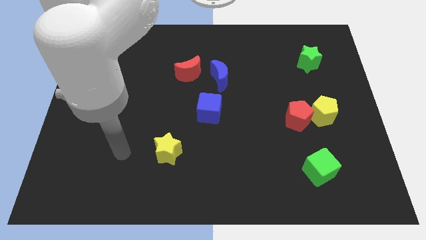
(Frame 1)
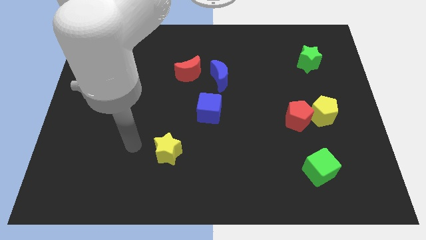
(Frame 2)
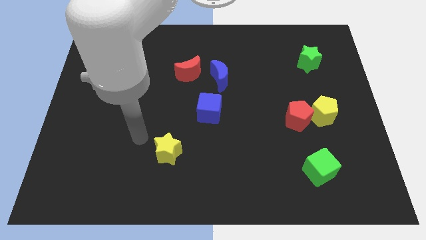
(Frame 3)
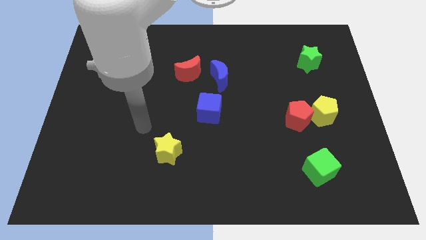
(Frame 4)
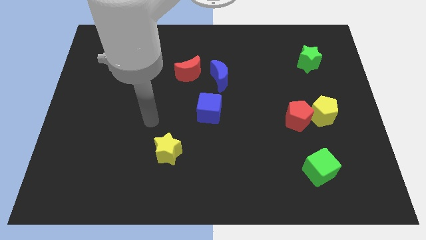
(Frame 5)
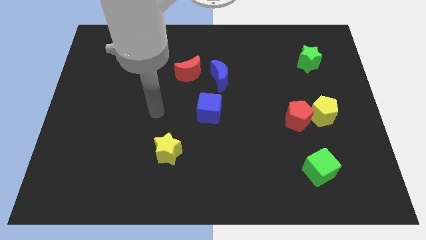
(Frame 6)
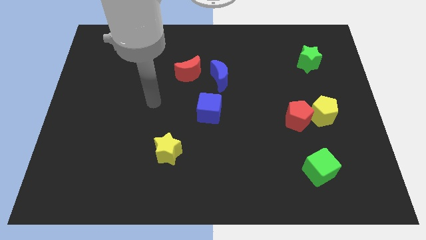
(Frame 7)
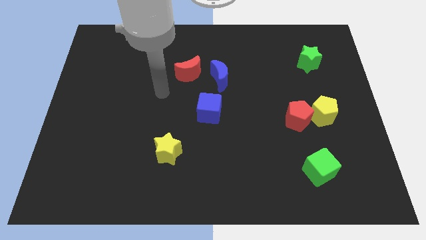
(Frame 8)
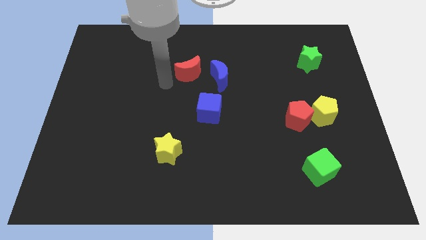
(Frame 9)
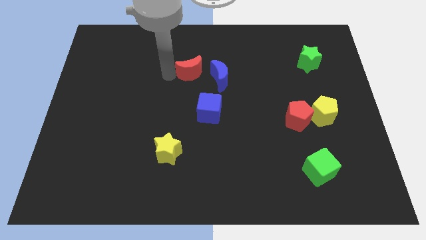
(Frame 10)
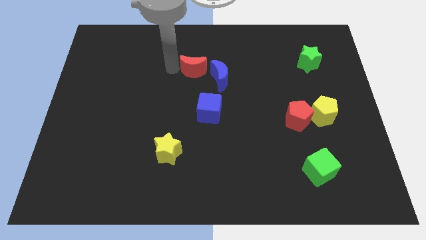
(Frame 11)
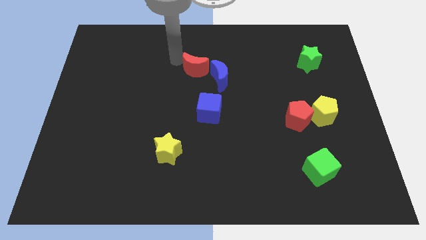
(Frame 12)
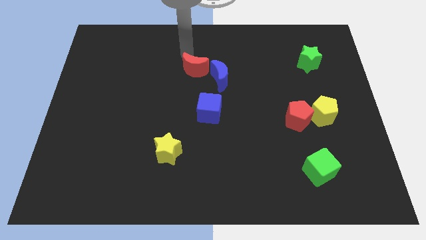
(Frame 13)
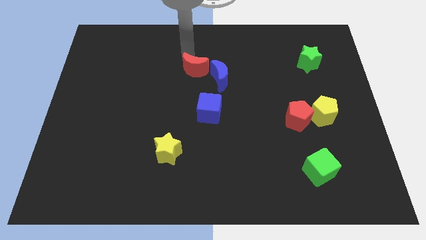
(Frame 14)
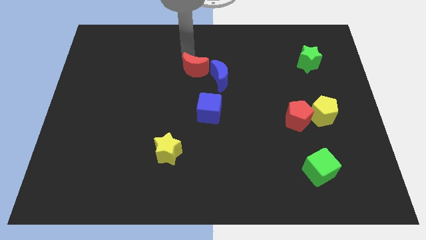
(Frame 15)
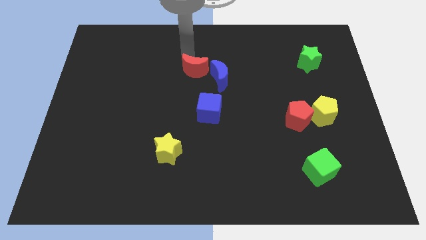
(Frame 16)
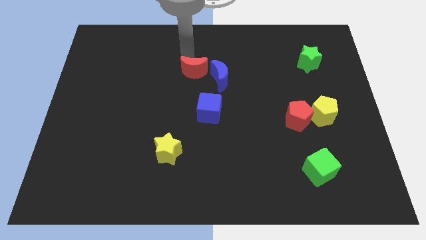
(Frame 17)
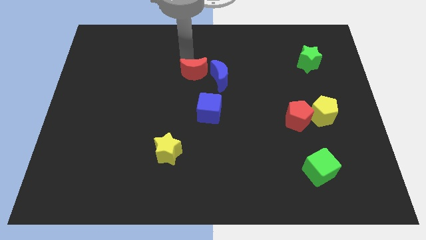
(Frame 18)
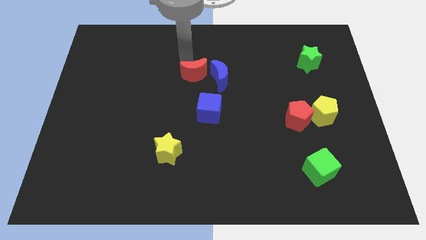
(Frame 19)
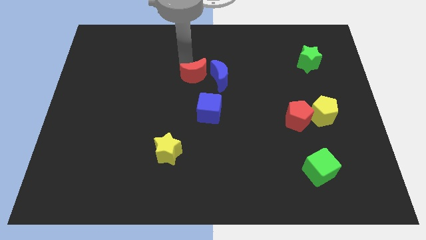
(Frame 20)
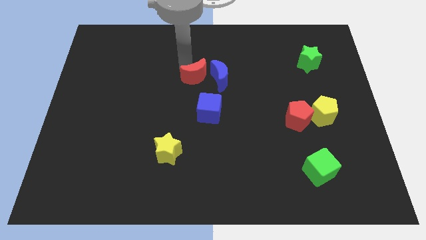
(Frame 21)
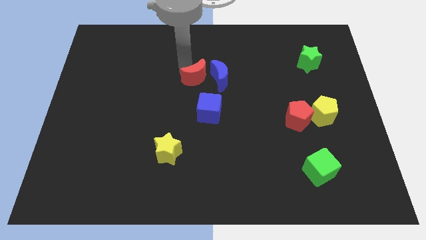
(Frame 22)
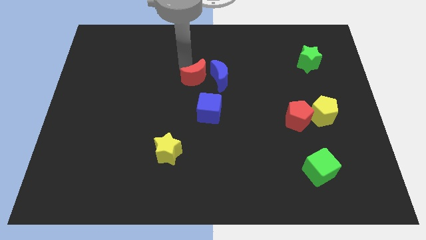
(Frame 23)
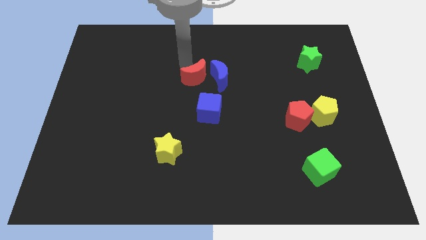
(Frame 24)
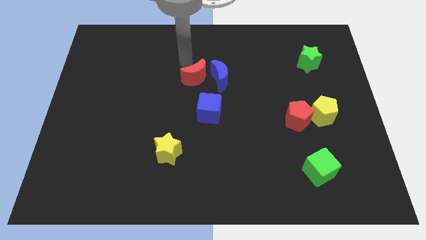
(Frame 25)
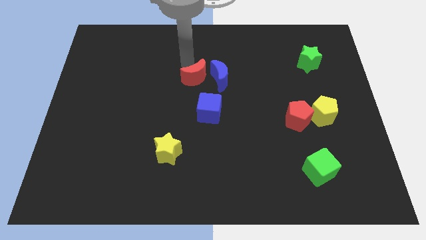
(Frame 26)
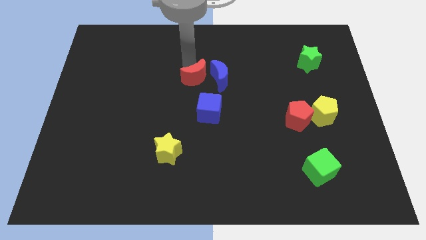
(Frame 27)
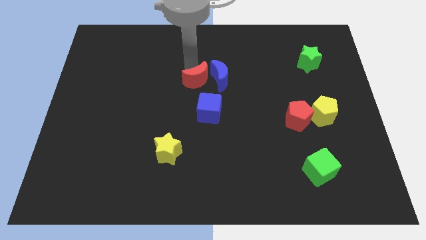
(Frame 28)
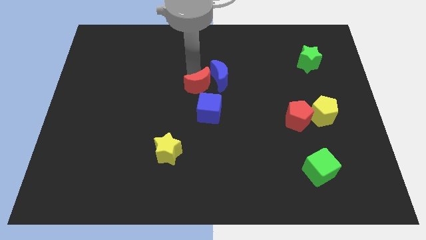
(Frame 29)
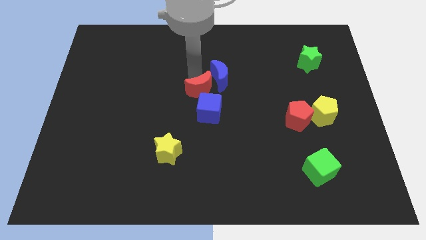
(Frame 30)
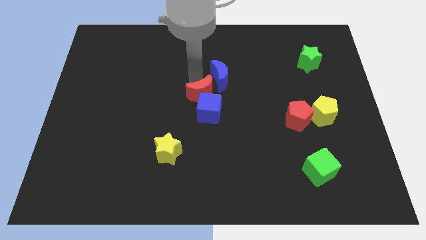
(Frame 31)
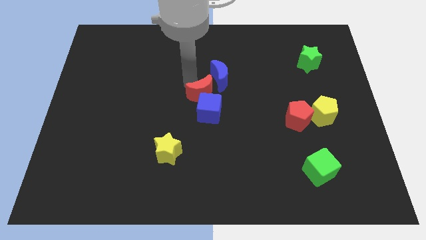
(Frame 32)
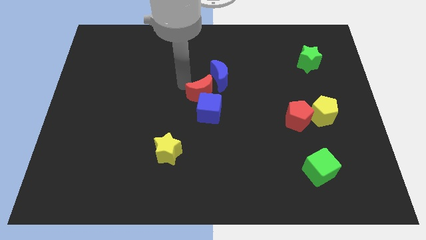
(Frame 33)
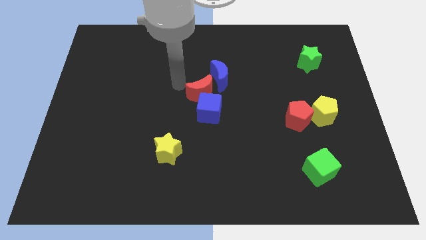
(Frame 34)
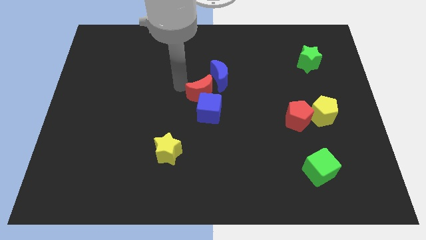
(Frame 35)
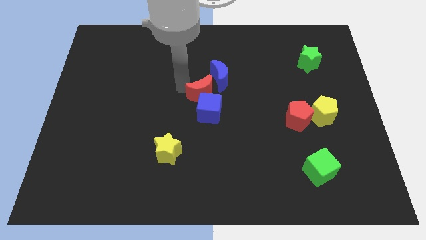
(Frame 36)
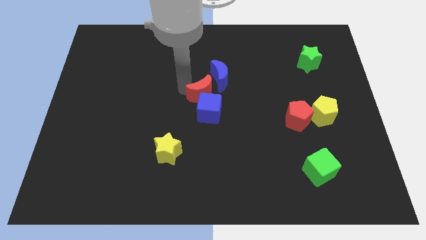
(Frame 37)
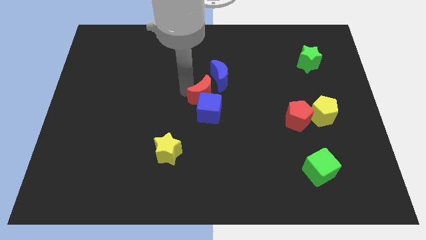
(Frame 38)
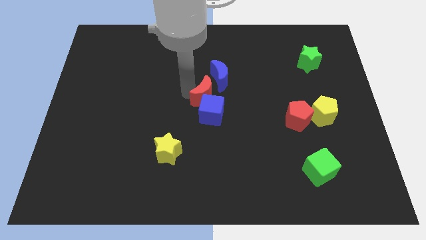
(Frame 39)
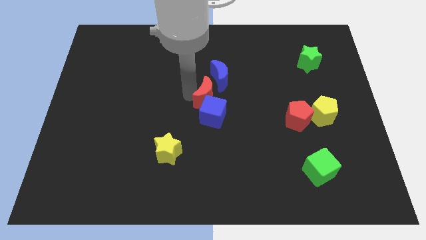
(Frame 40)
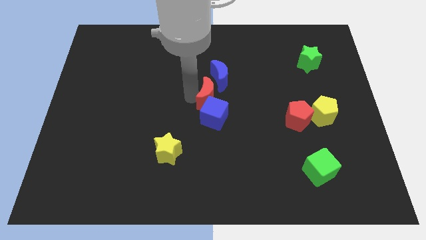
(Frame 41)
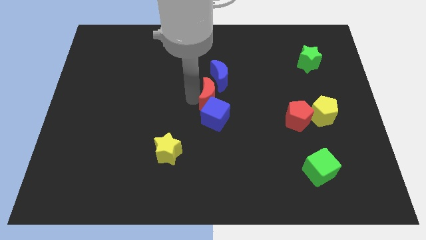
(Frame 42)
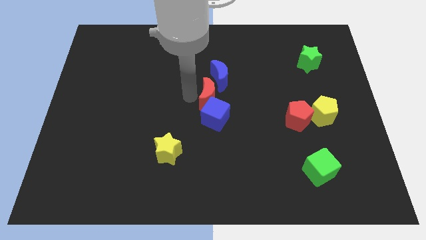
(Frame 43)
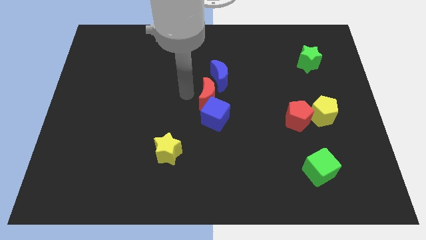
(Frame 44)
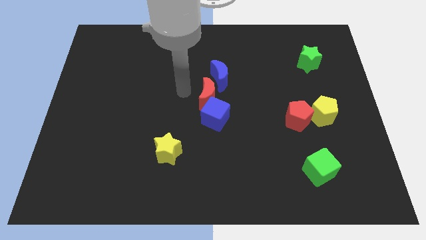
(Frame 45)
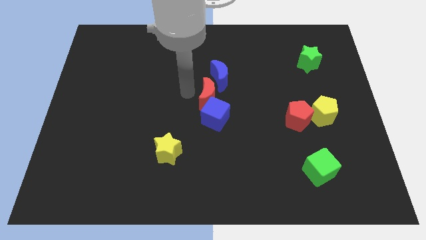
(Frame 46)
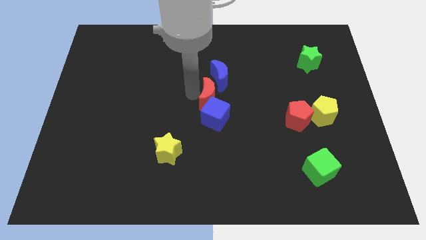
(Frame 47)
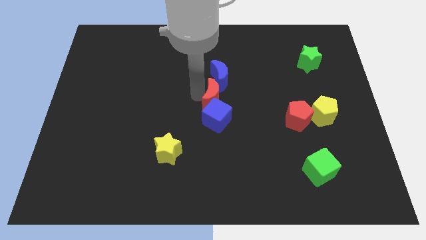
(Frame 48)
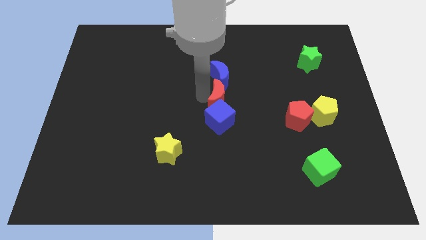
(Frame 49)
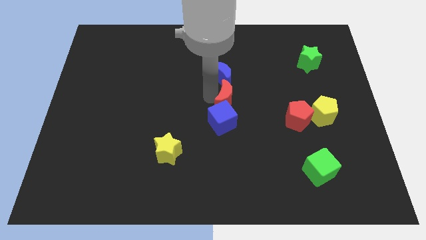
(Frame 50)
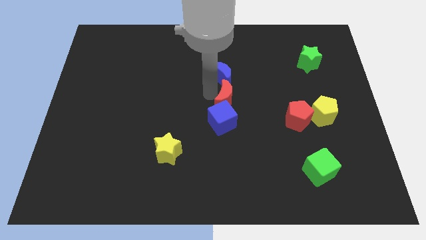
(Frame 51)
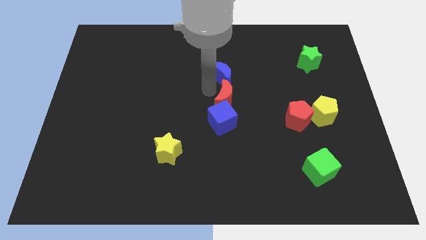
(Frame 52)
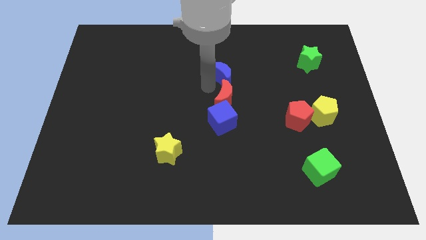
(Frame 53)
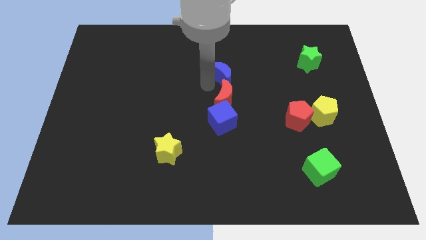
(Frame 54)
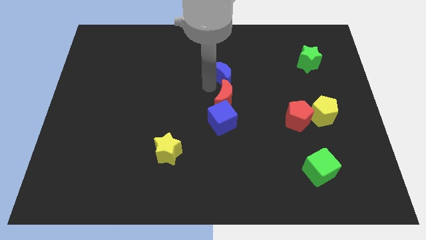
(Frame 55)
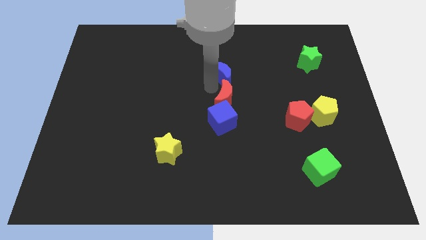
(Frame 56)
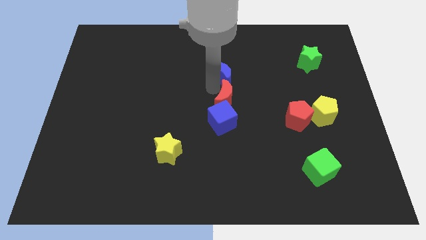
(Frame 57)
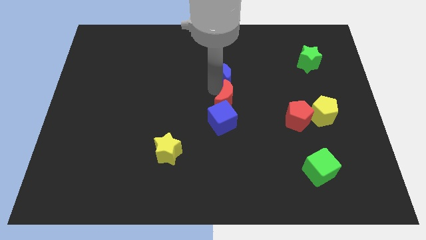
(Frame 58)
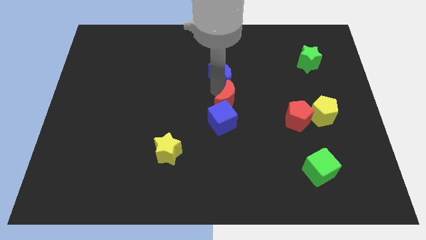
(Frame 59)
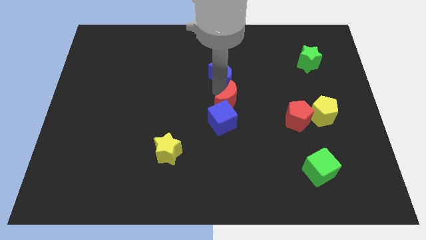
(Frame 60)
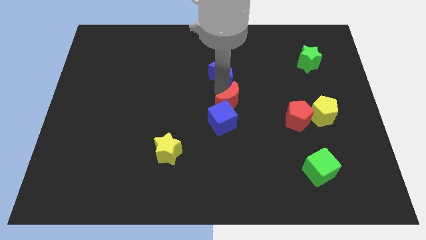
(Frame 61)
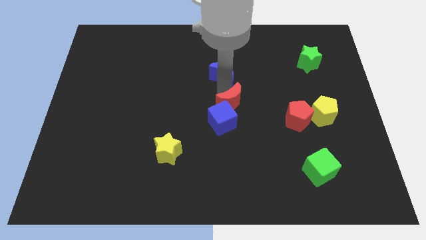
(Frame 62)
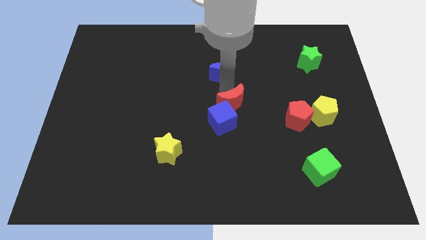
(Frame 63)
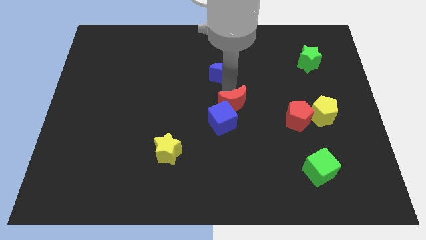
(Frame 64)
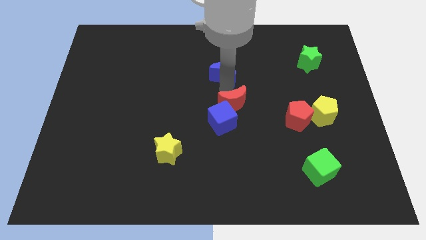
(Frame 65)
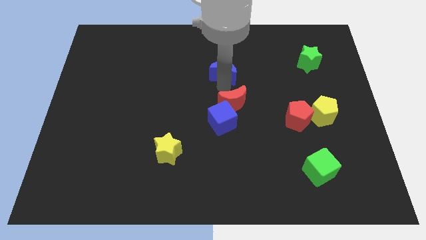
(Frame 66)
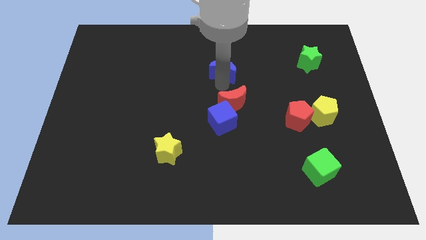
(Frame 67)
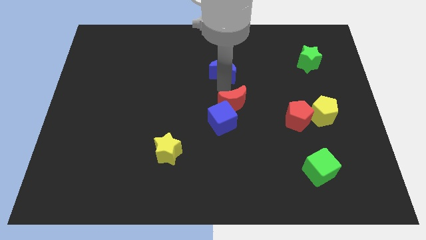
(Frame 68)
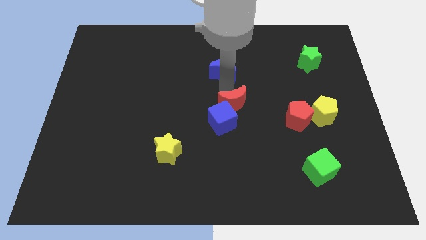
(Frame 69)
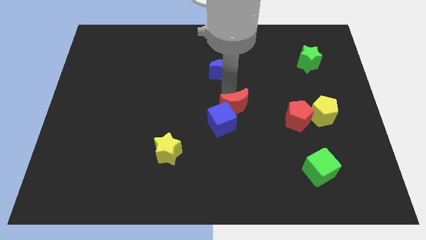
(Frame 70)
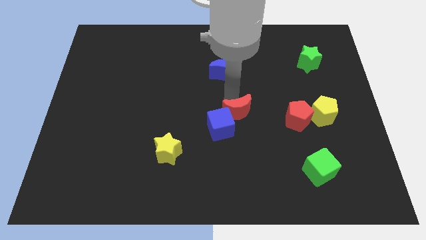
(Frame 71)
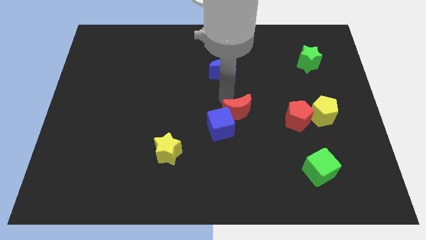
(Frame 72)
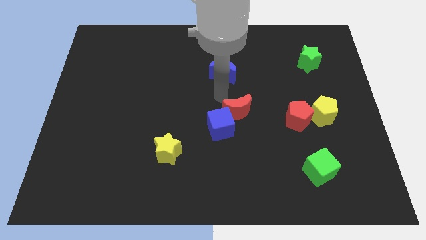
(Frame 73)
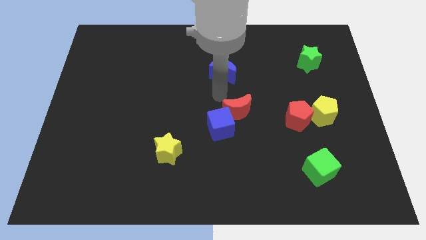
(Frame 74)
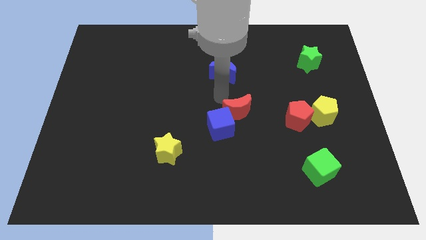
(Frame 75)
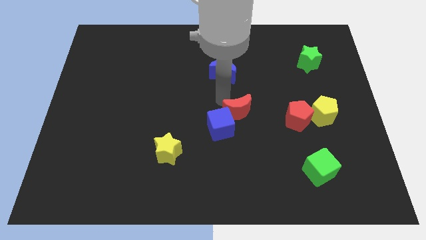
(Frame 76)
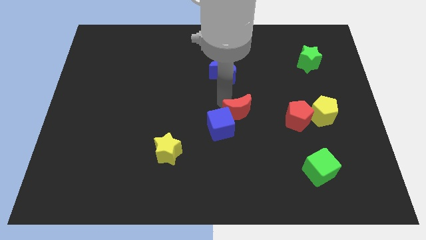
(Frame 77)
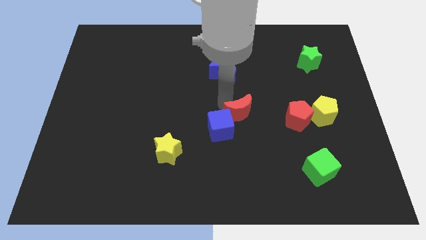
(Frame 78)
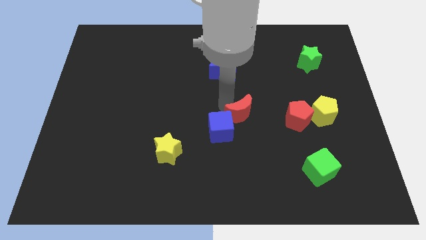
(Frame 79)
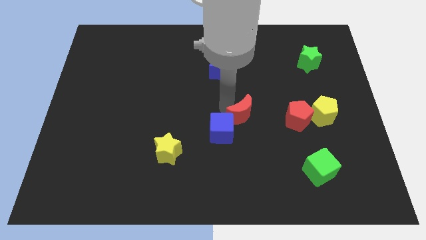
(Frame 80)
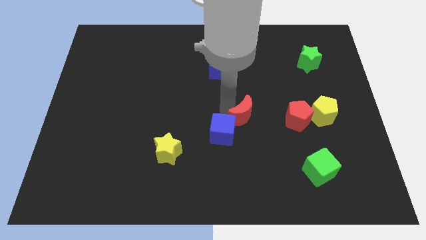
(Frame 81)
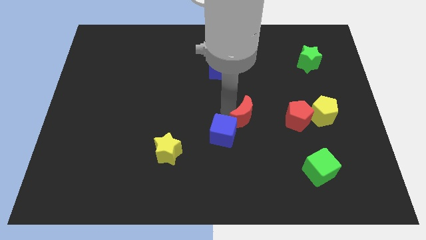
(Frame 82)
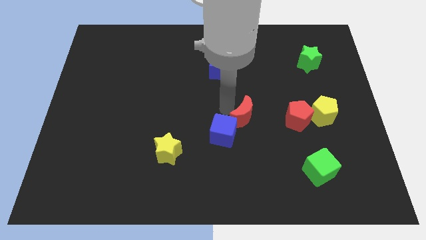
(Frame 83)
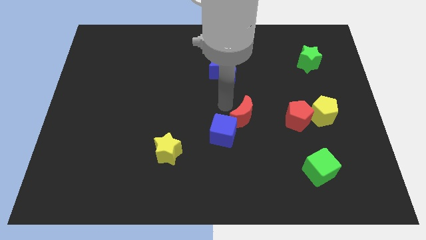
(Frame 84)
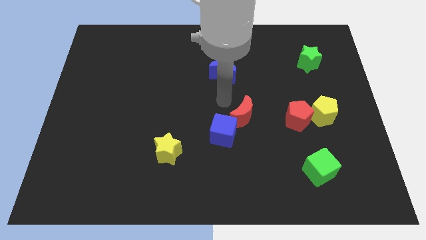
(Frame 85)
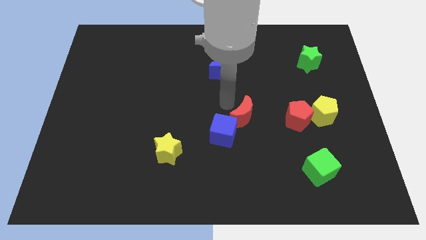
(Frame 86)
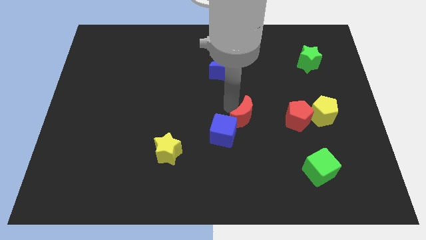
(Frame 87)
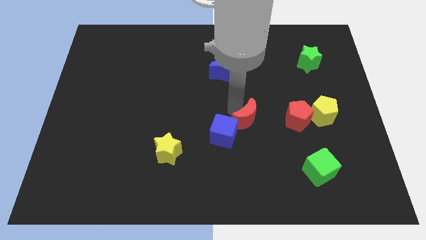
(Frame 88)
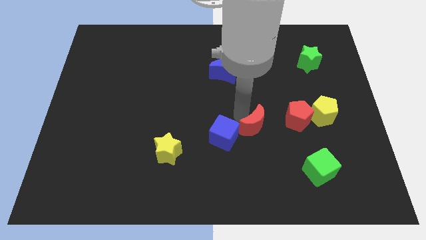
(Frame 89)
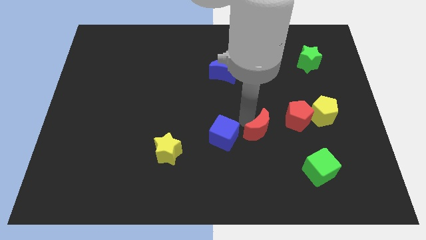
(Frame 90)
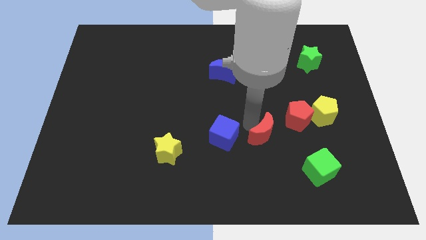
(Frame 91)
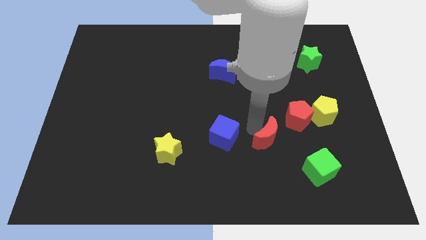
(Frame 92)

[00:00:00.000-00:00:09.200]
put the red moon to the top left of the green cube
